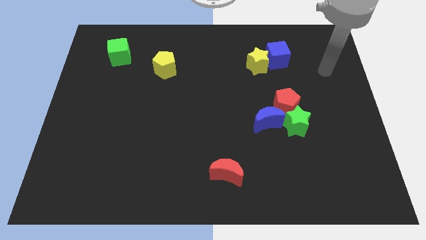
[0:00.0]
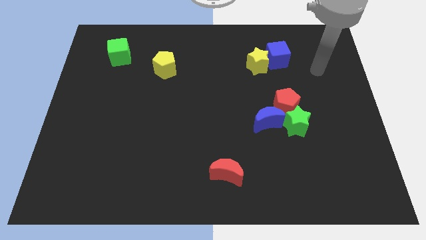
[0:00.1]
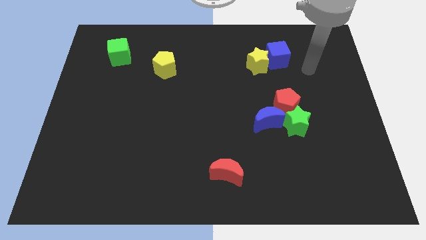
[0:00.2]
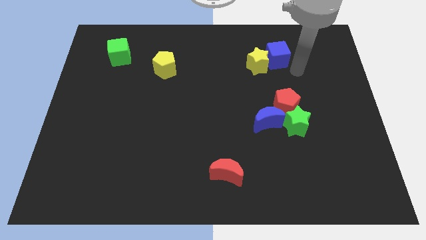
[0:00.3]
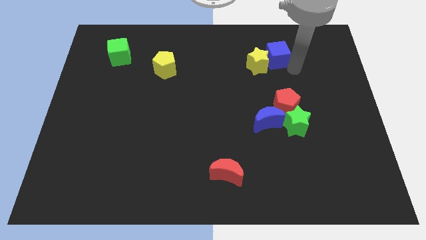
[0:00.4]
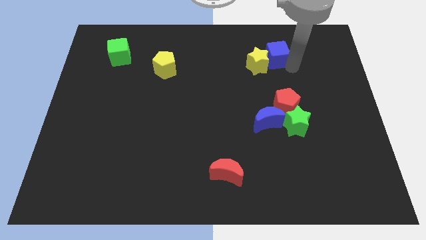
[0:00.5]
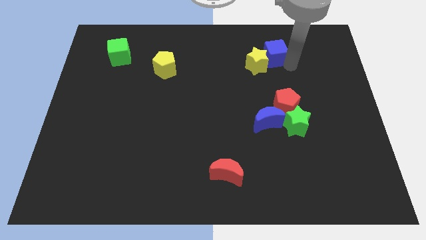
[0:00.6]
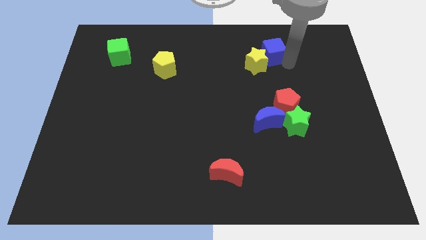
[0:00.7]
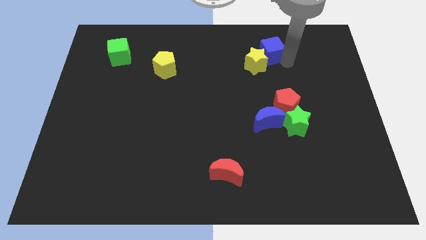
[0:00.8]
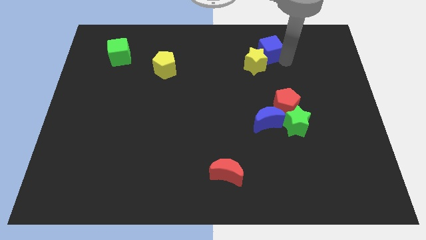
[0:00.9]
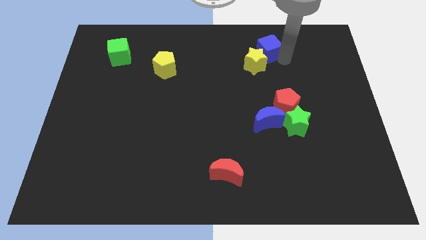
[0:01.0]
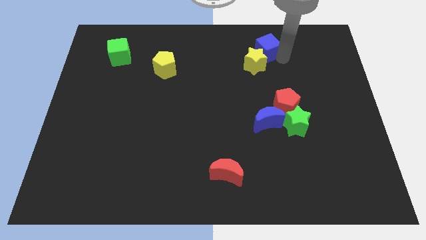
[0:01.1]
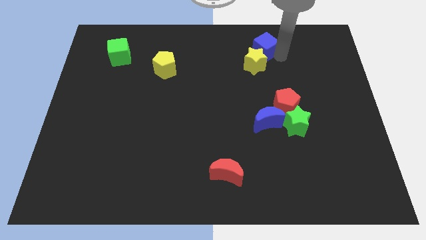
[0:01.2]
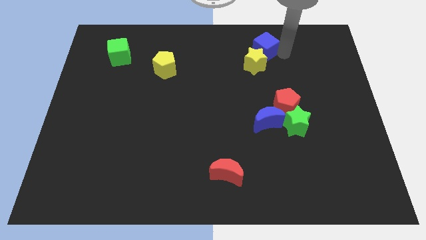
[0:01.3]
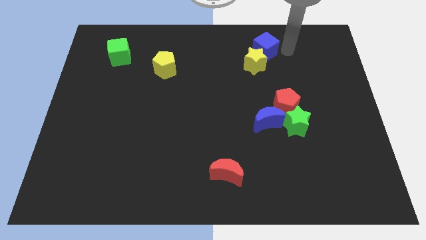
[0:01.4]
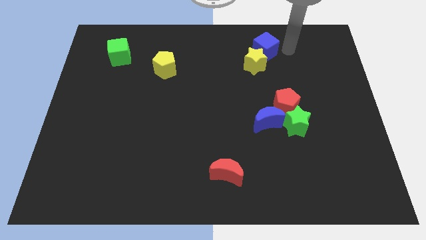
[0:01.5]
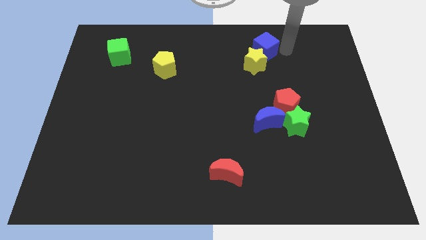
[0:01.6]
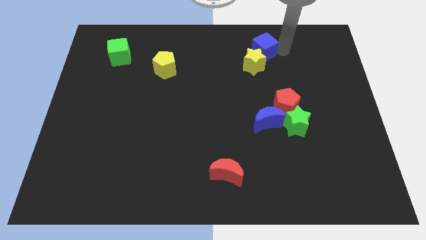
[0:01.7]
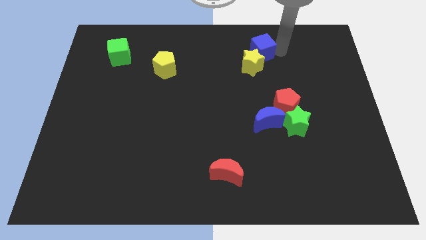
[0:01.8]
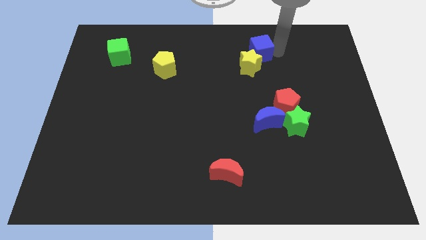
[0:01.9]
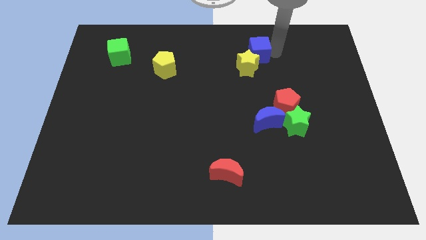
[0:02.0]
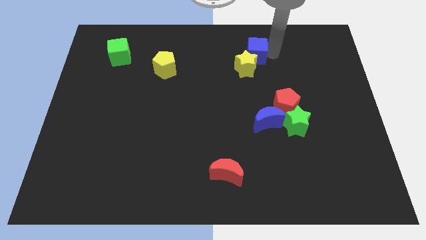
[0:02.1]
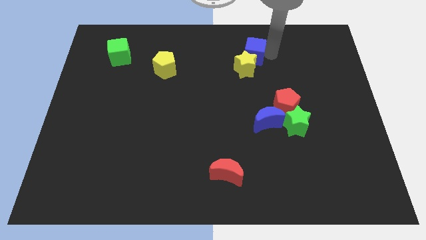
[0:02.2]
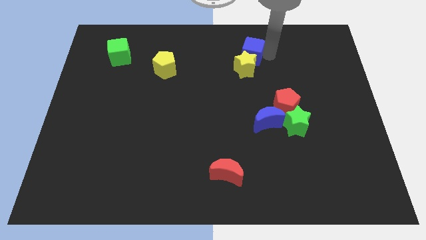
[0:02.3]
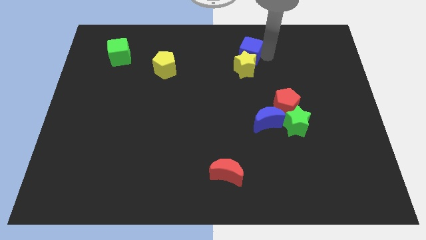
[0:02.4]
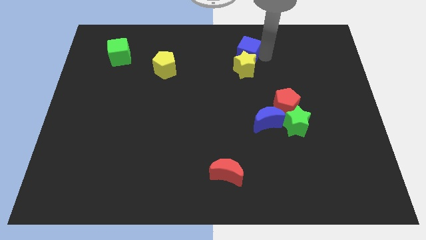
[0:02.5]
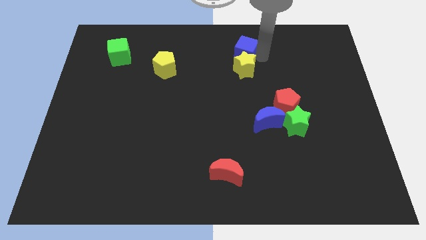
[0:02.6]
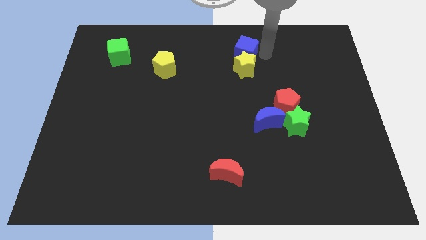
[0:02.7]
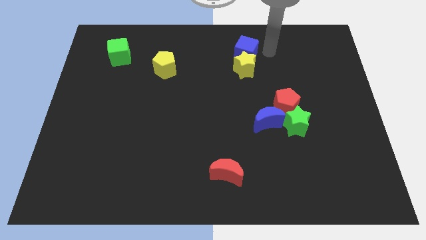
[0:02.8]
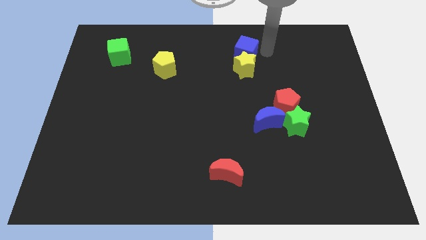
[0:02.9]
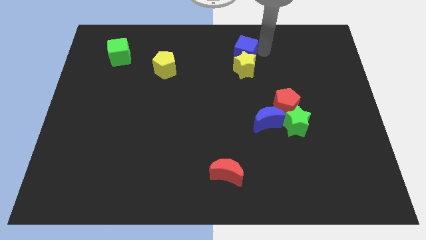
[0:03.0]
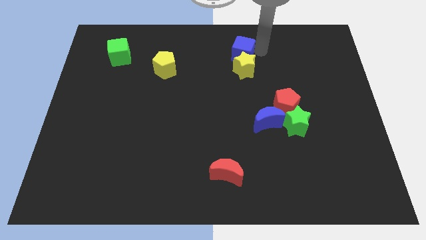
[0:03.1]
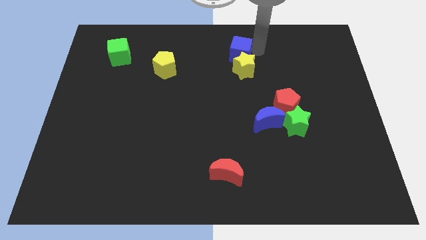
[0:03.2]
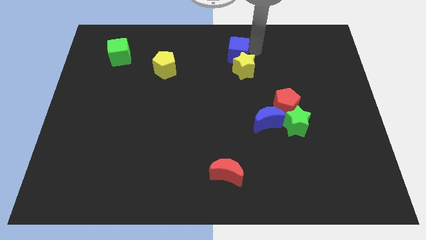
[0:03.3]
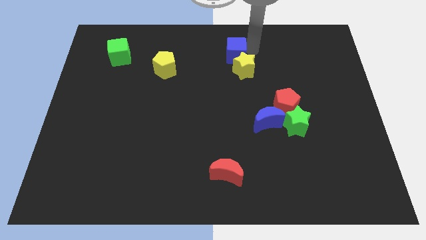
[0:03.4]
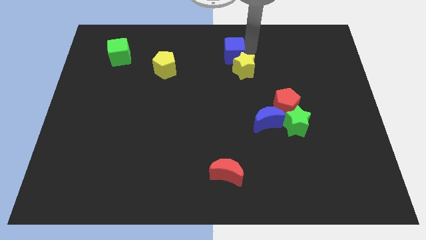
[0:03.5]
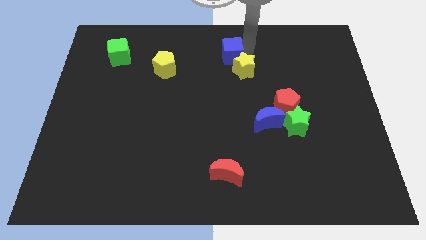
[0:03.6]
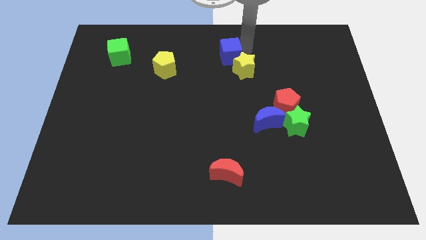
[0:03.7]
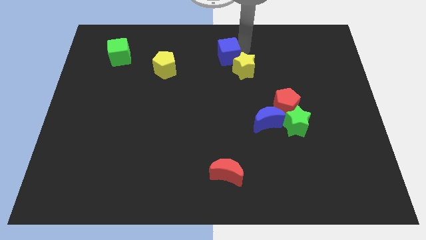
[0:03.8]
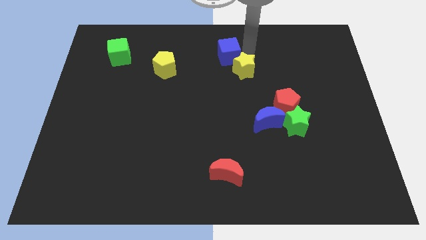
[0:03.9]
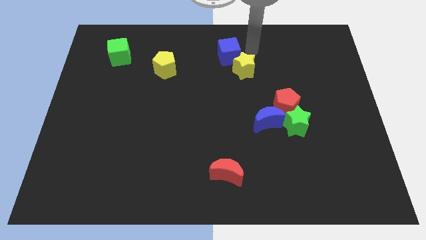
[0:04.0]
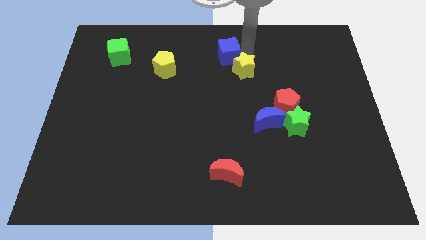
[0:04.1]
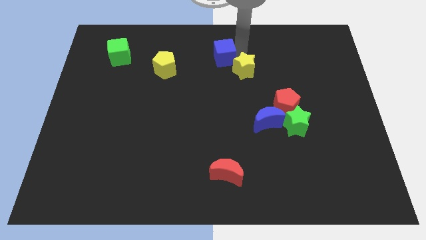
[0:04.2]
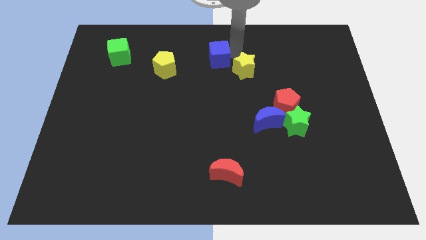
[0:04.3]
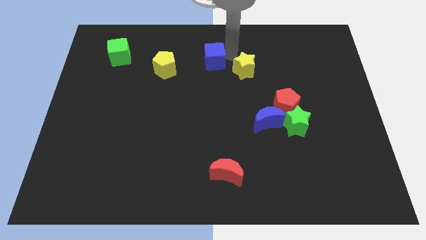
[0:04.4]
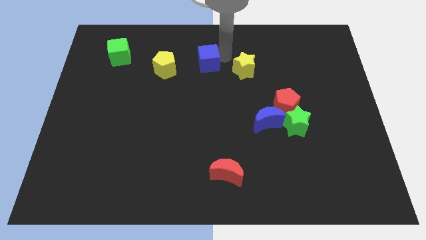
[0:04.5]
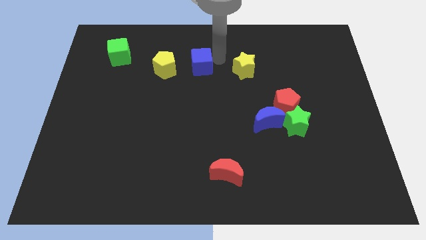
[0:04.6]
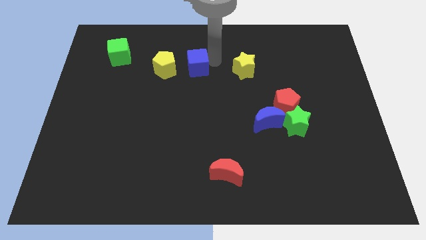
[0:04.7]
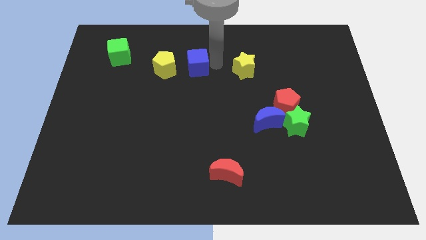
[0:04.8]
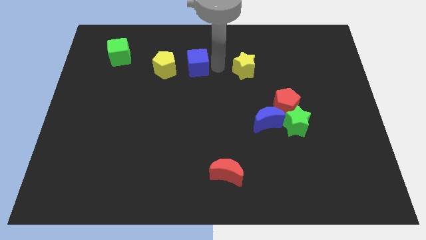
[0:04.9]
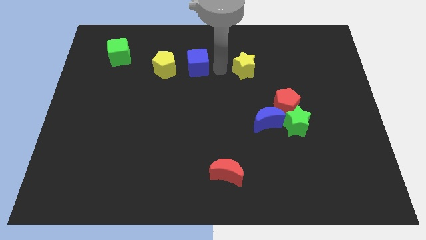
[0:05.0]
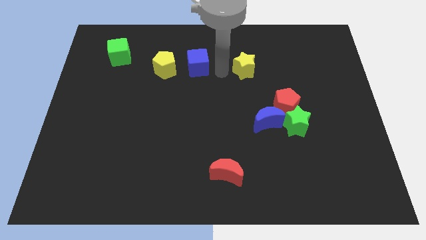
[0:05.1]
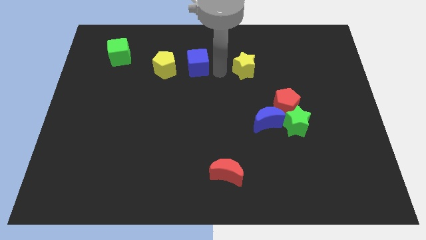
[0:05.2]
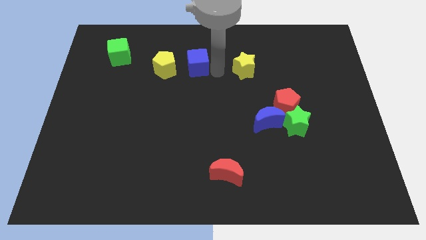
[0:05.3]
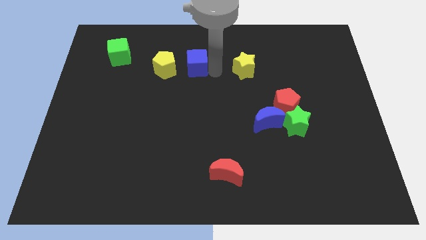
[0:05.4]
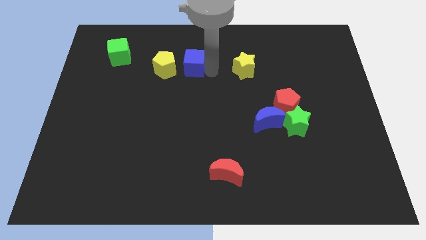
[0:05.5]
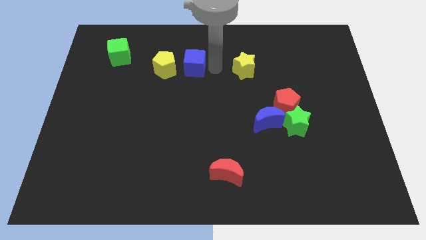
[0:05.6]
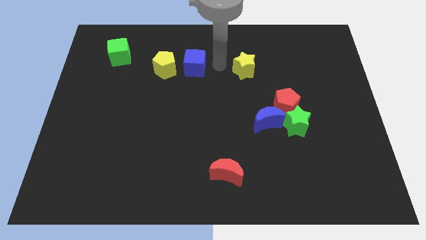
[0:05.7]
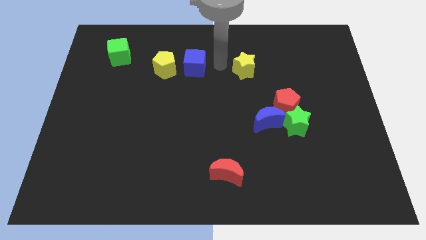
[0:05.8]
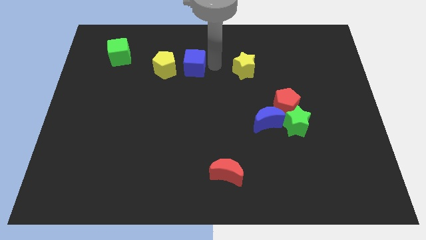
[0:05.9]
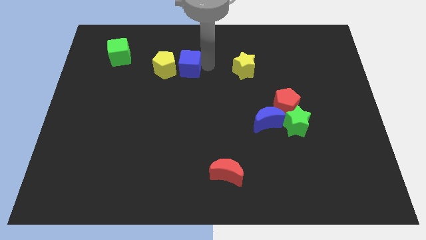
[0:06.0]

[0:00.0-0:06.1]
move the blue cube towards the yellow pentagon
